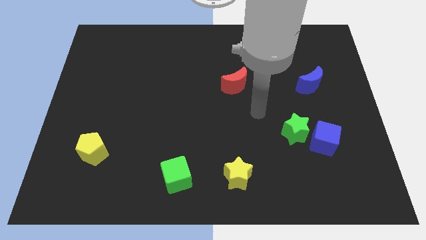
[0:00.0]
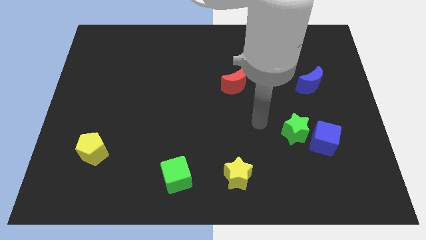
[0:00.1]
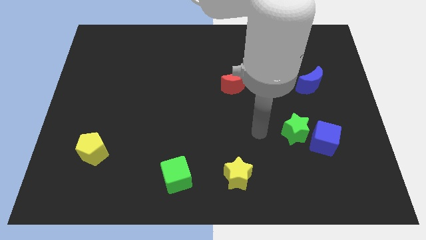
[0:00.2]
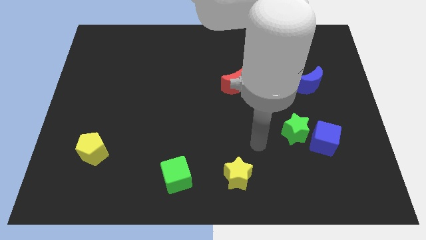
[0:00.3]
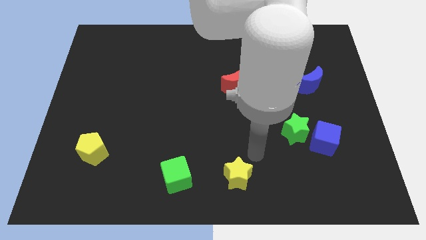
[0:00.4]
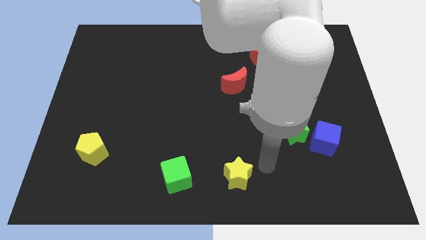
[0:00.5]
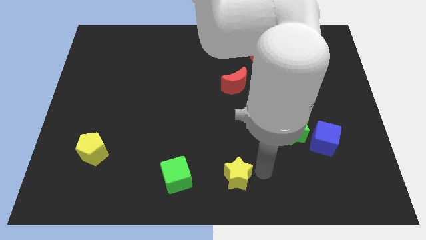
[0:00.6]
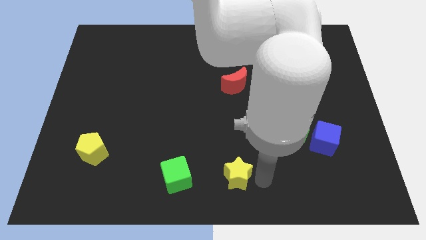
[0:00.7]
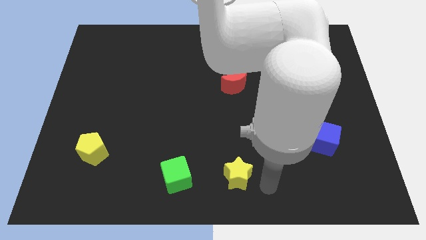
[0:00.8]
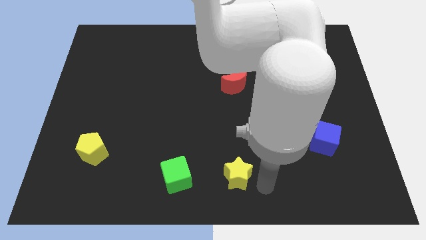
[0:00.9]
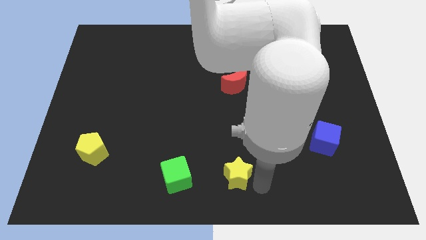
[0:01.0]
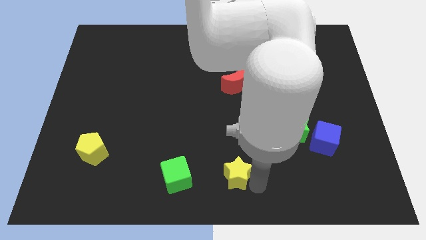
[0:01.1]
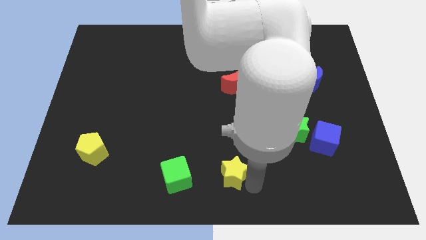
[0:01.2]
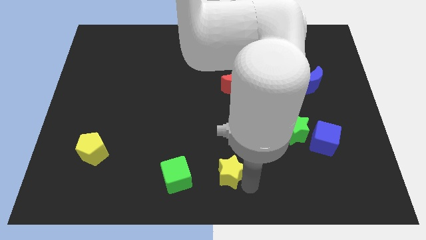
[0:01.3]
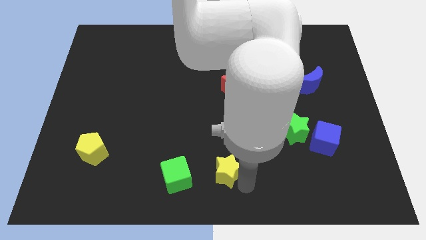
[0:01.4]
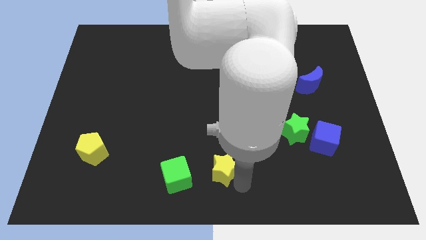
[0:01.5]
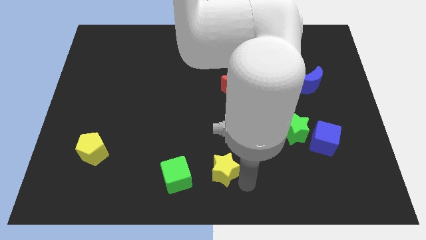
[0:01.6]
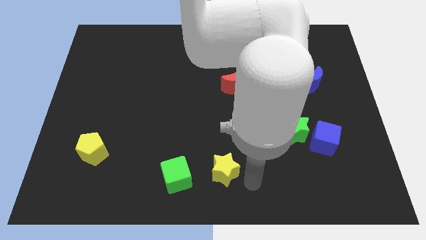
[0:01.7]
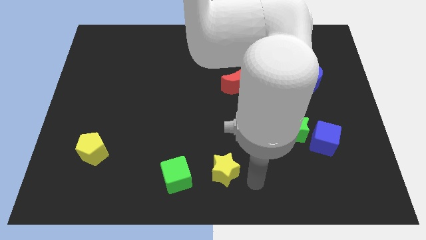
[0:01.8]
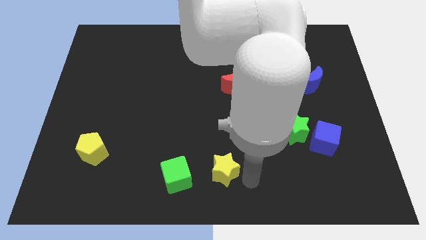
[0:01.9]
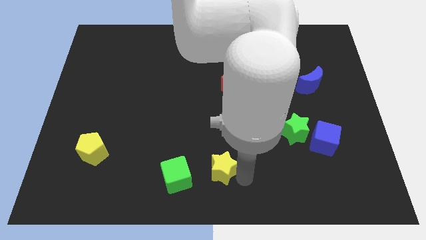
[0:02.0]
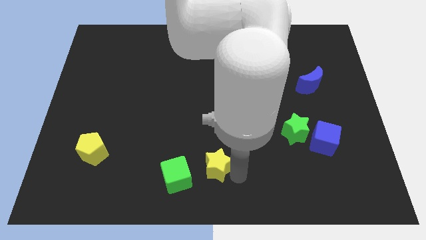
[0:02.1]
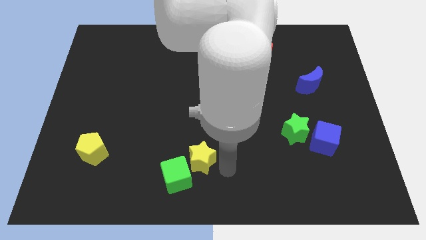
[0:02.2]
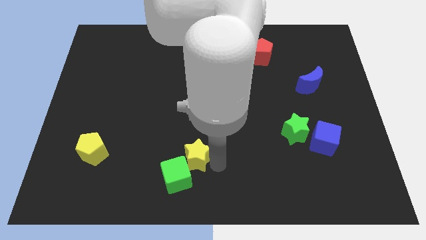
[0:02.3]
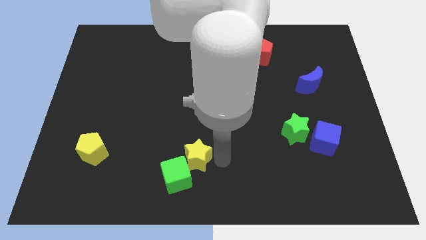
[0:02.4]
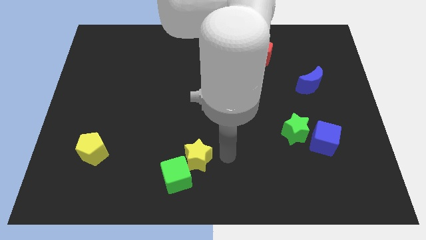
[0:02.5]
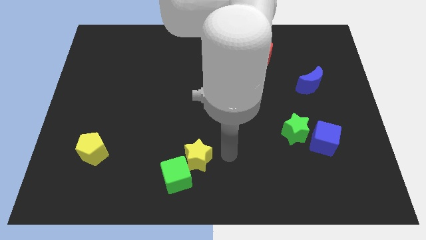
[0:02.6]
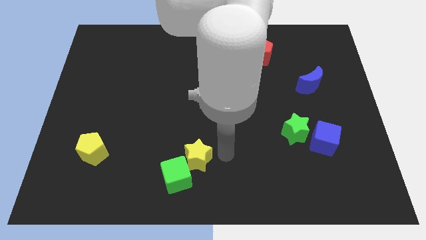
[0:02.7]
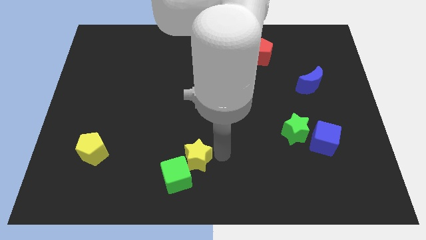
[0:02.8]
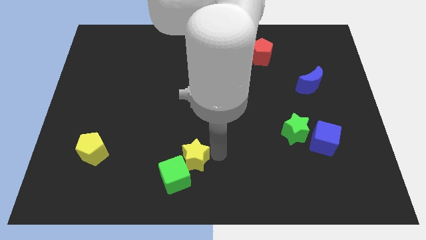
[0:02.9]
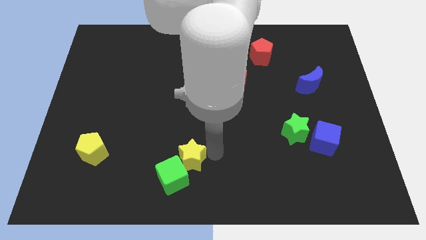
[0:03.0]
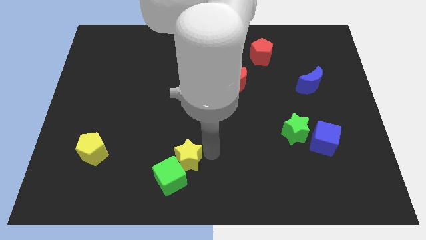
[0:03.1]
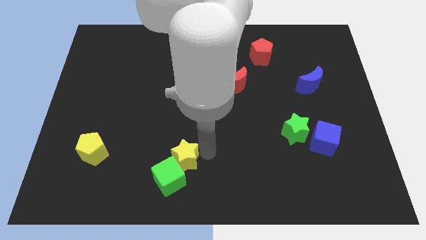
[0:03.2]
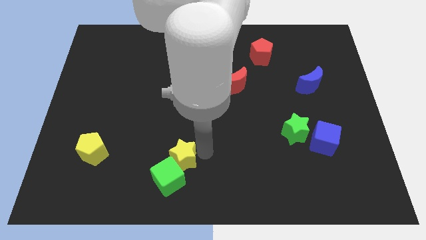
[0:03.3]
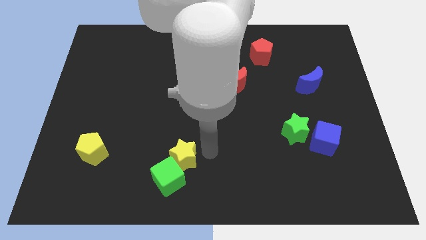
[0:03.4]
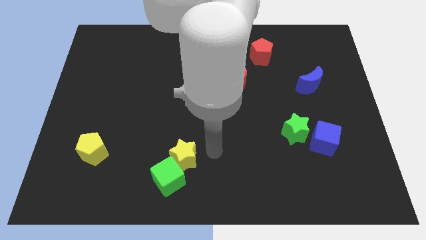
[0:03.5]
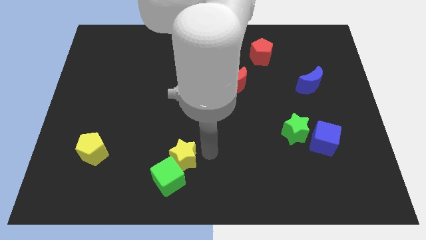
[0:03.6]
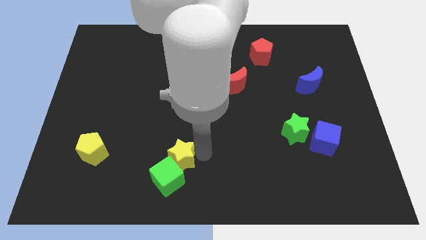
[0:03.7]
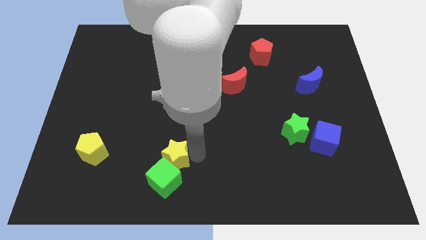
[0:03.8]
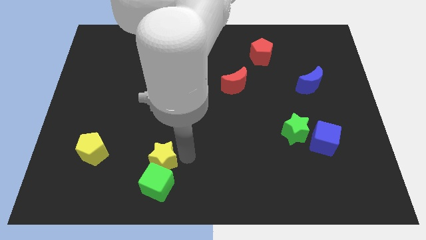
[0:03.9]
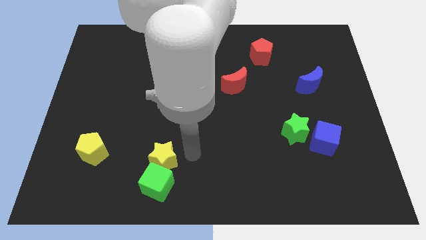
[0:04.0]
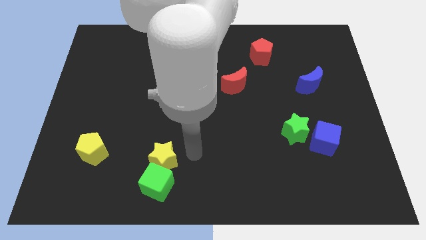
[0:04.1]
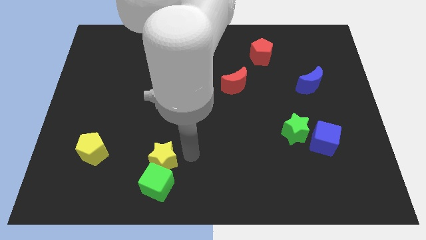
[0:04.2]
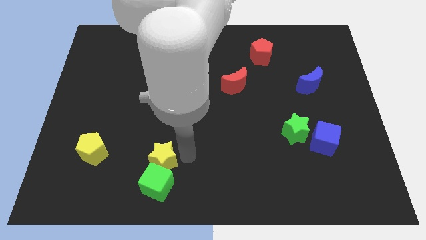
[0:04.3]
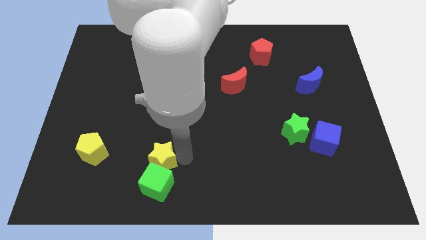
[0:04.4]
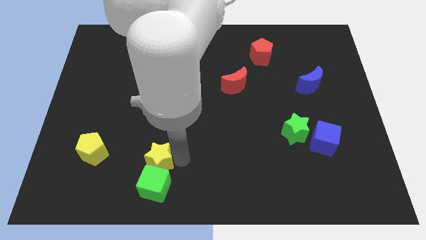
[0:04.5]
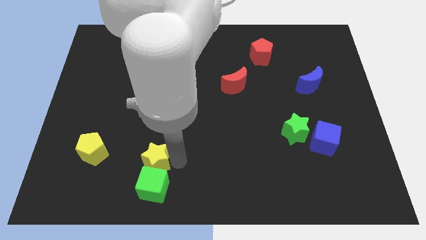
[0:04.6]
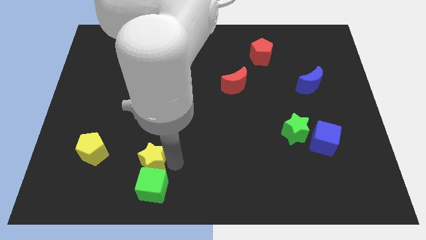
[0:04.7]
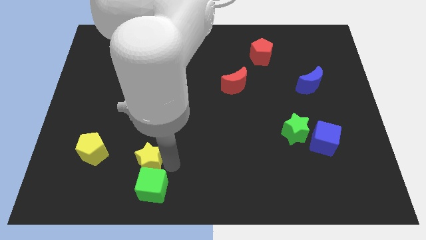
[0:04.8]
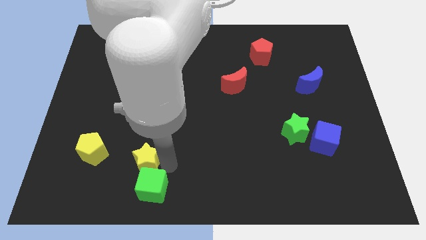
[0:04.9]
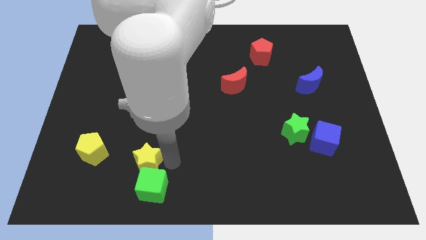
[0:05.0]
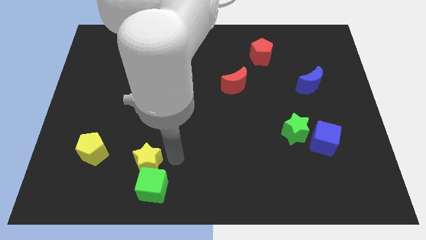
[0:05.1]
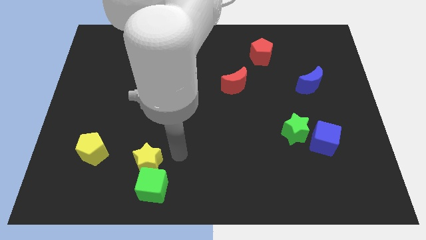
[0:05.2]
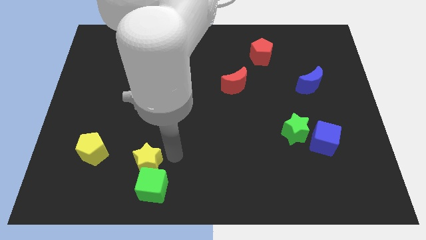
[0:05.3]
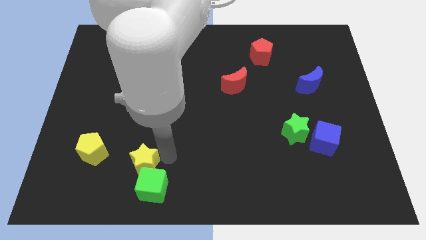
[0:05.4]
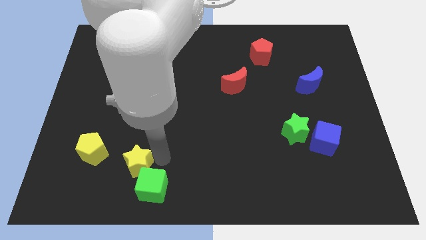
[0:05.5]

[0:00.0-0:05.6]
move the yellow star to the left

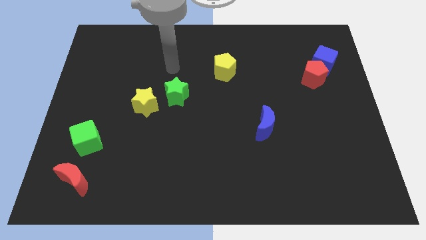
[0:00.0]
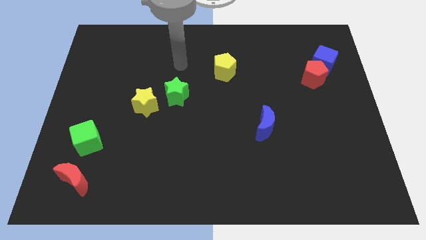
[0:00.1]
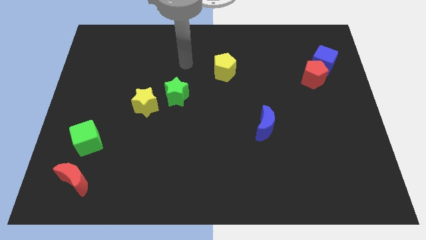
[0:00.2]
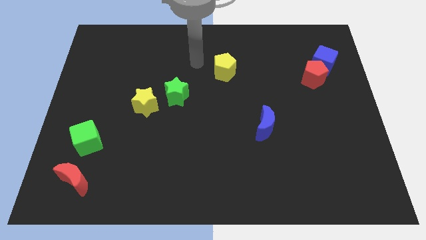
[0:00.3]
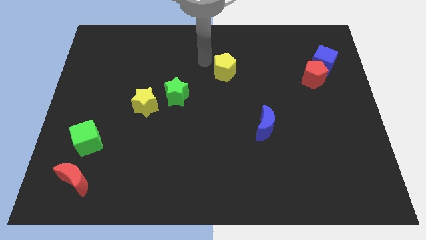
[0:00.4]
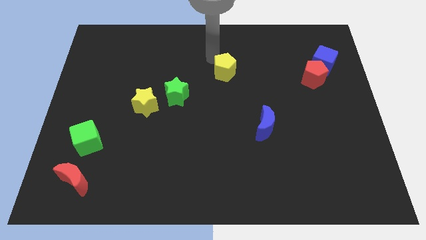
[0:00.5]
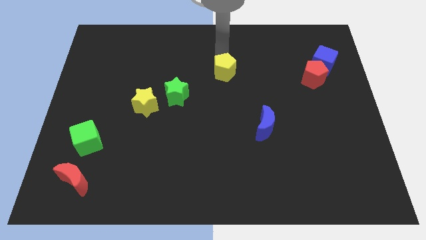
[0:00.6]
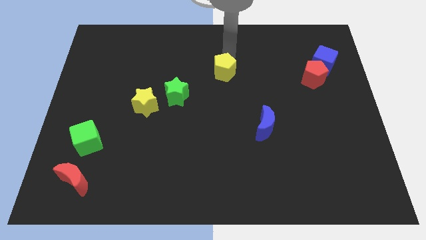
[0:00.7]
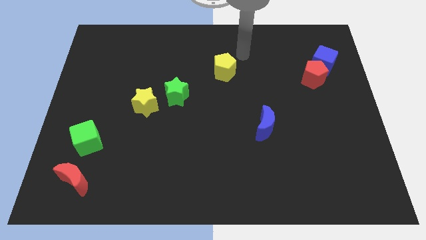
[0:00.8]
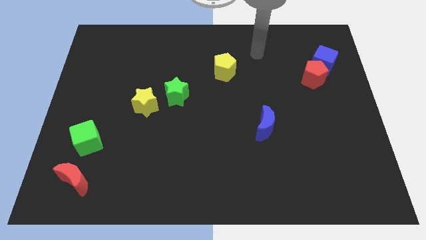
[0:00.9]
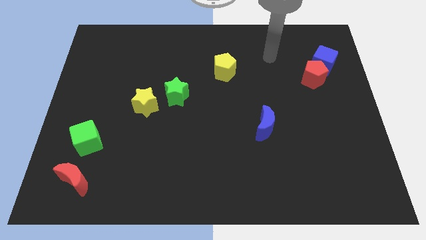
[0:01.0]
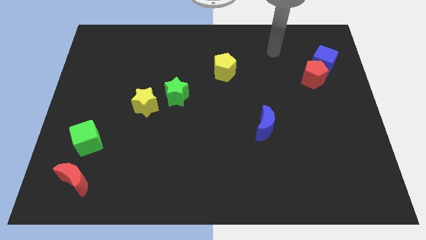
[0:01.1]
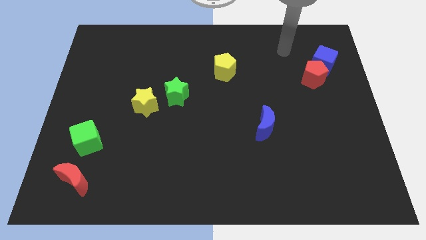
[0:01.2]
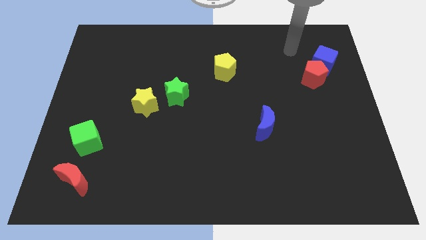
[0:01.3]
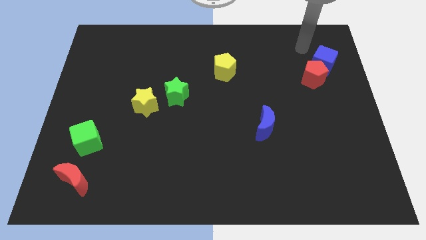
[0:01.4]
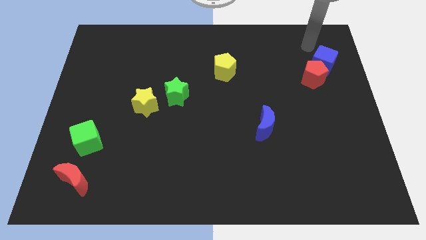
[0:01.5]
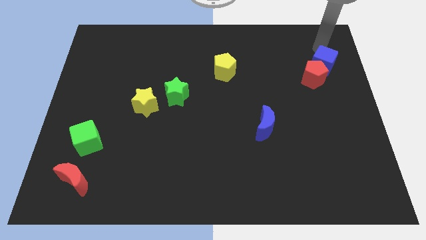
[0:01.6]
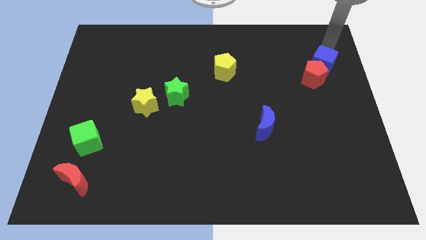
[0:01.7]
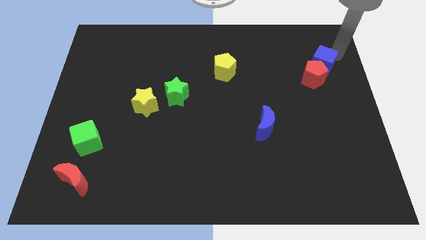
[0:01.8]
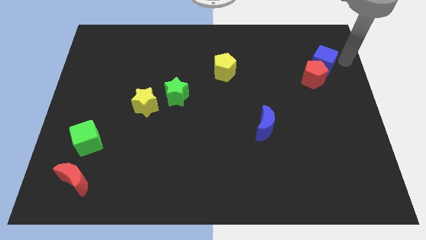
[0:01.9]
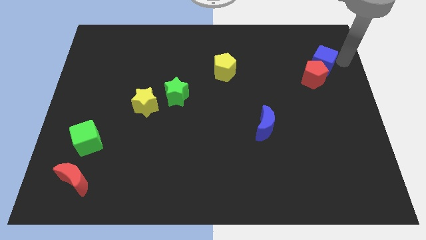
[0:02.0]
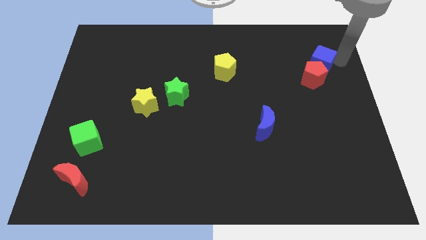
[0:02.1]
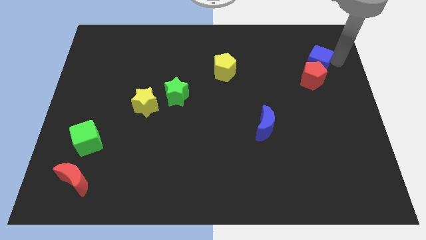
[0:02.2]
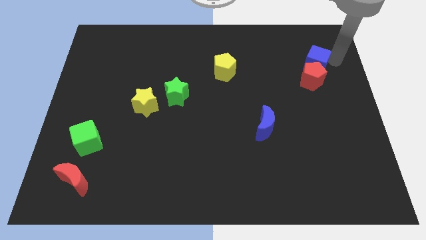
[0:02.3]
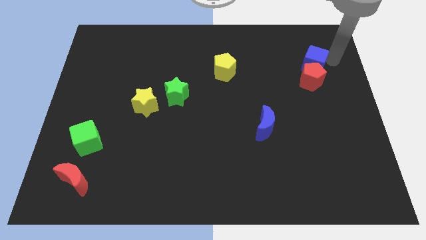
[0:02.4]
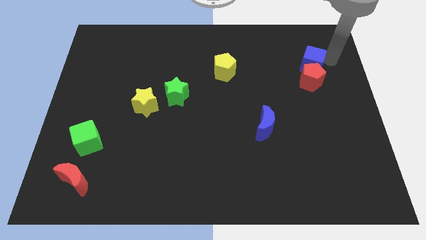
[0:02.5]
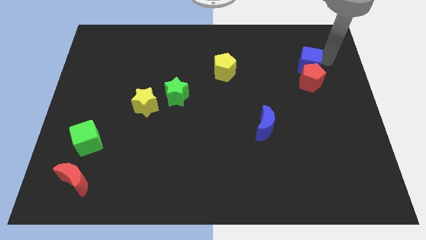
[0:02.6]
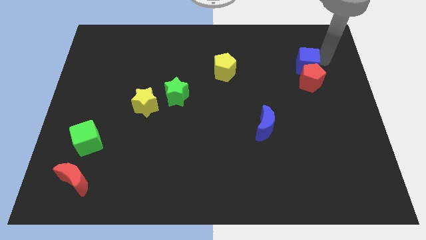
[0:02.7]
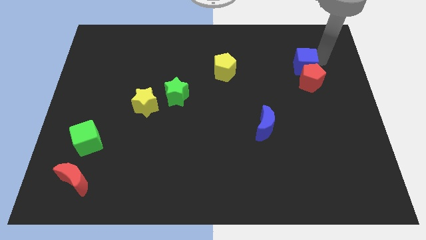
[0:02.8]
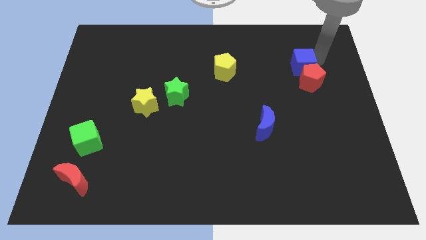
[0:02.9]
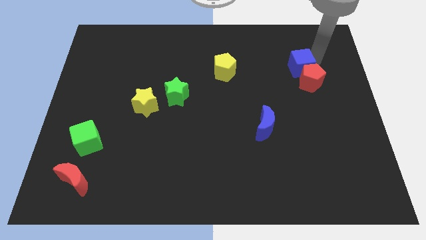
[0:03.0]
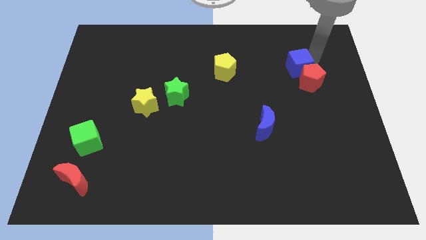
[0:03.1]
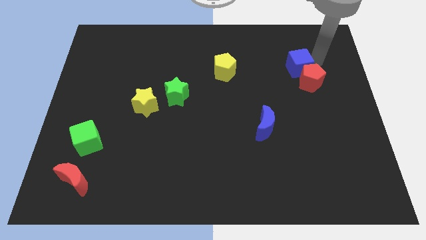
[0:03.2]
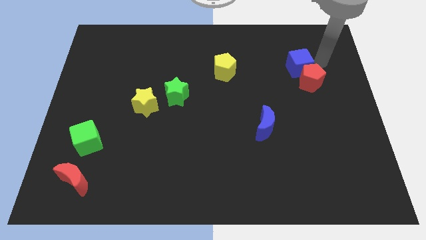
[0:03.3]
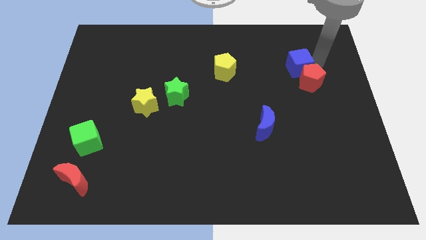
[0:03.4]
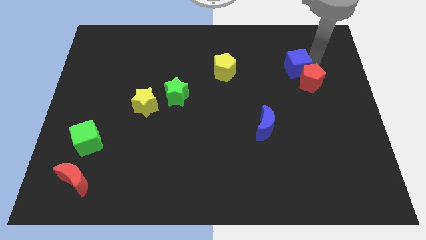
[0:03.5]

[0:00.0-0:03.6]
push the blue cube to the left a bit
